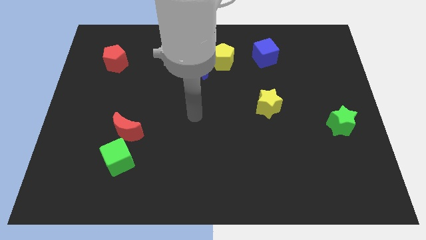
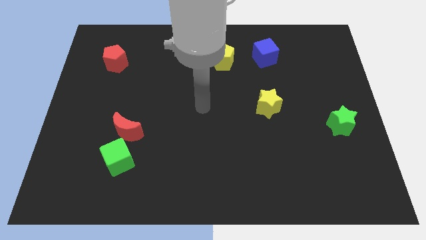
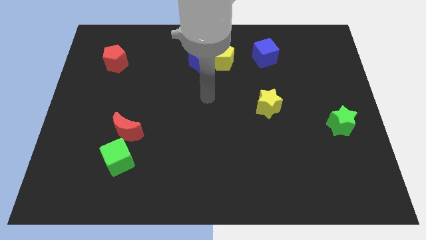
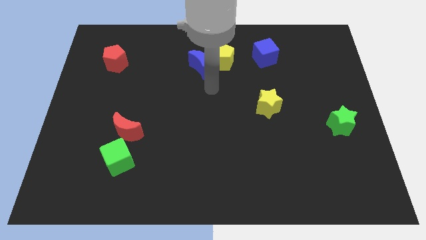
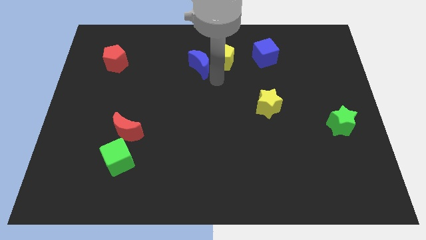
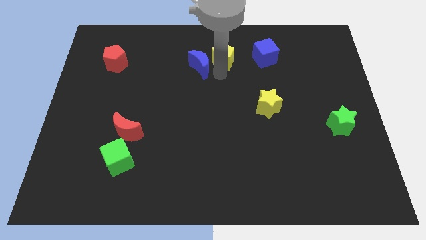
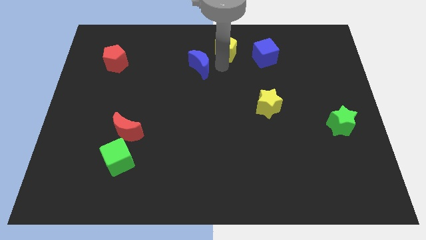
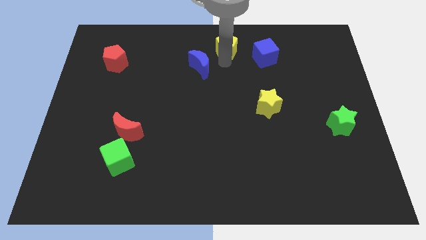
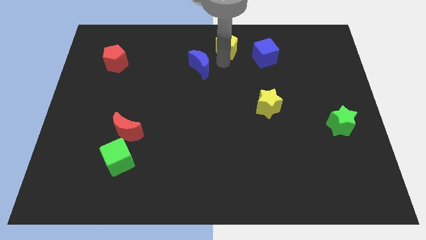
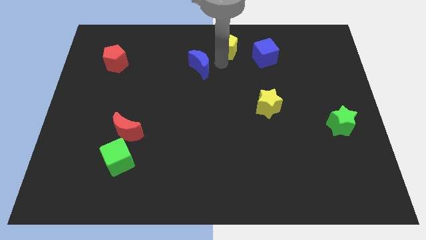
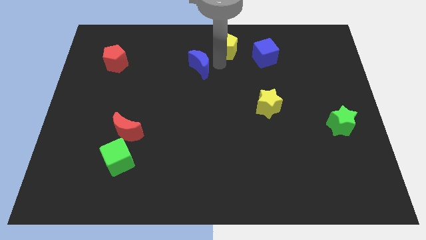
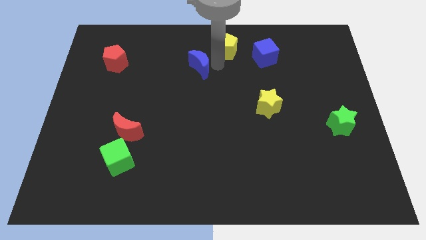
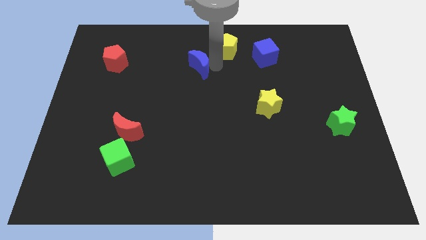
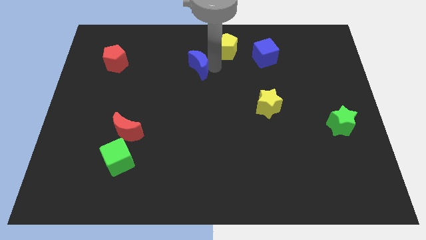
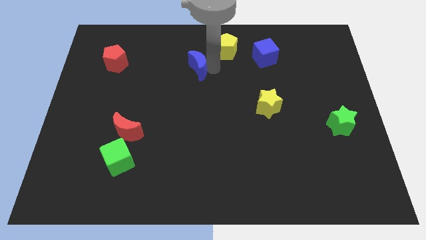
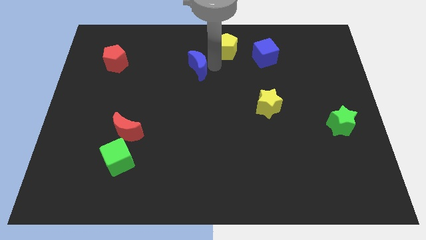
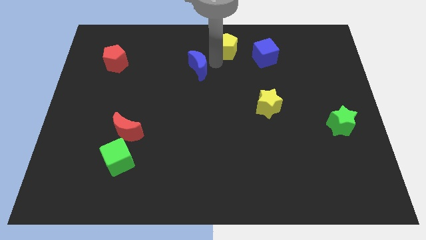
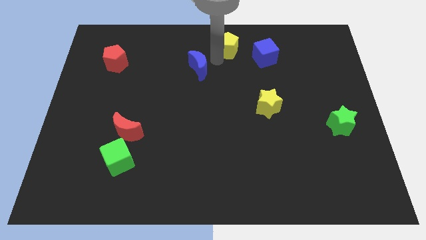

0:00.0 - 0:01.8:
separate the blue moon from the yellow pentagon

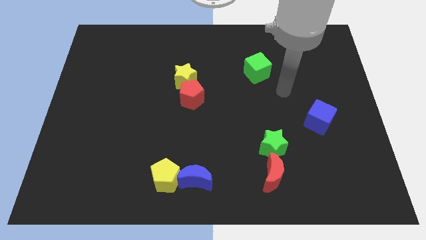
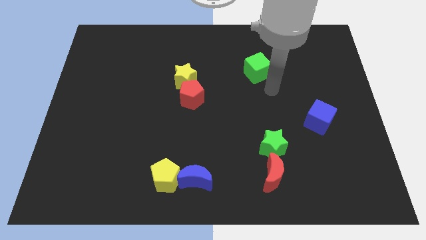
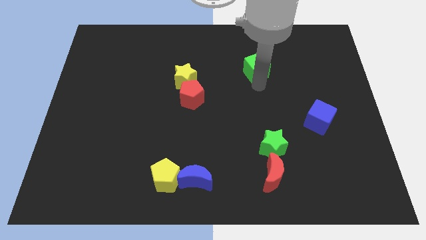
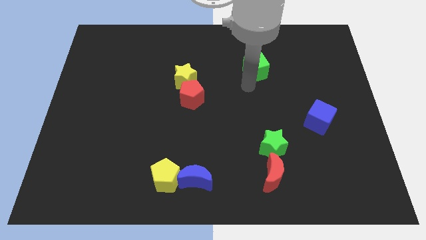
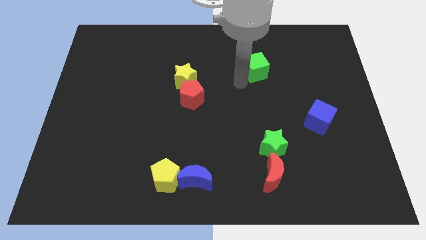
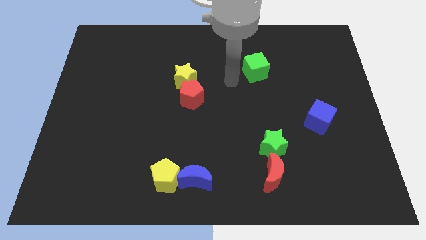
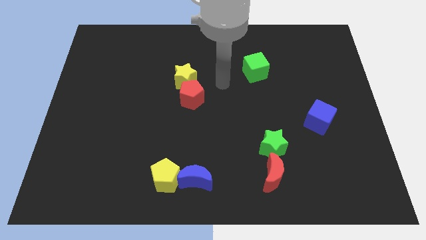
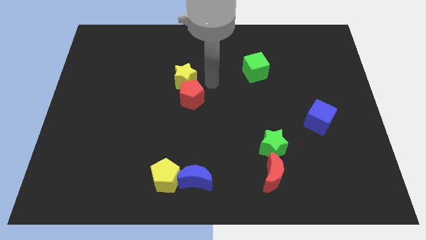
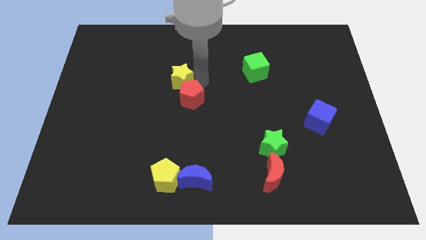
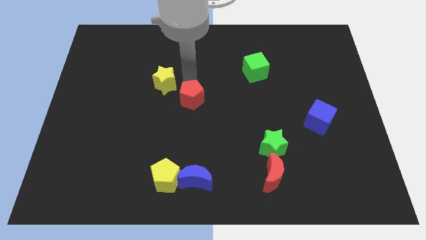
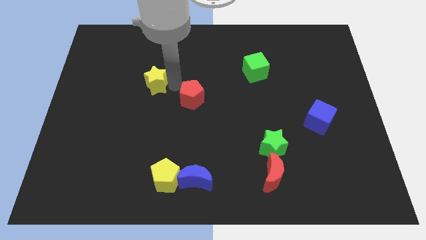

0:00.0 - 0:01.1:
separate the red pentagon from the yellow star

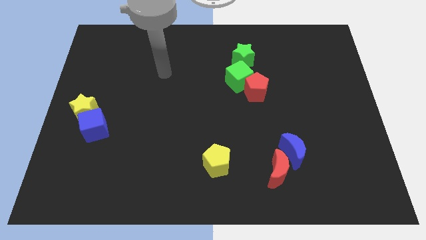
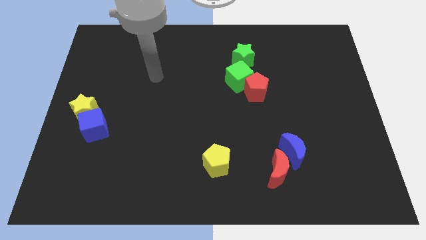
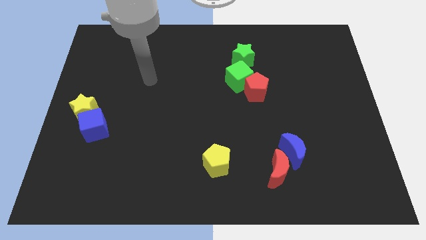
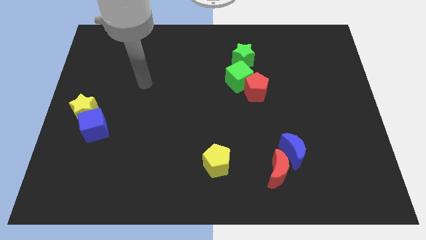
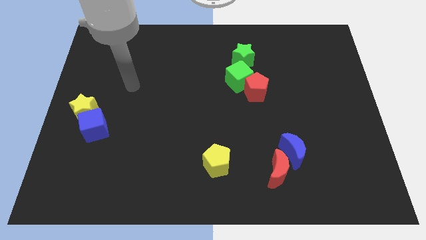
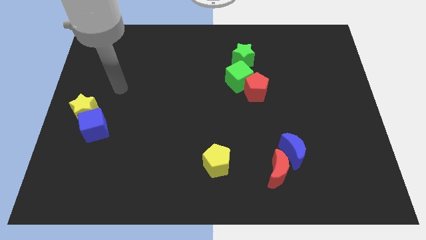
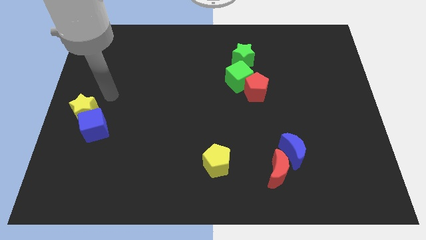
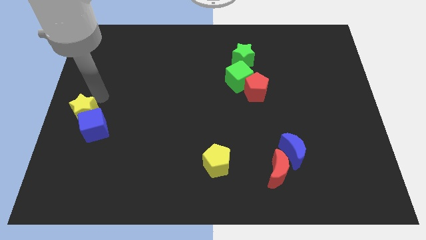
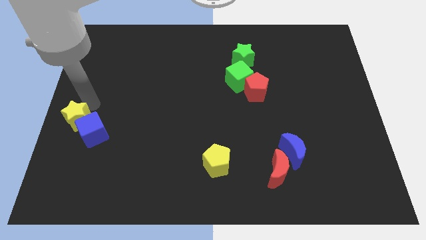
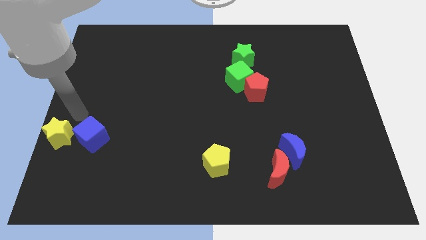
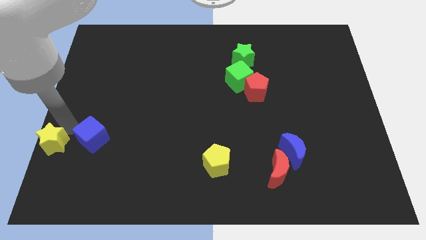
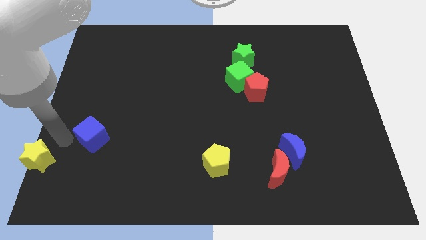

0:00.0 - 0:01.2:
pull the blue cube apart from the yellow star

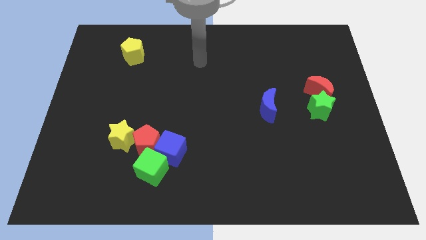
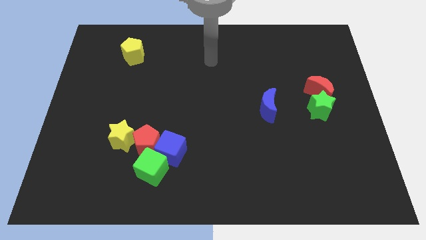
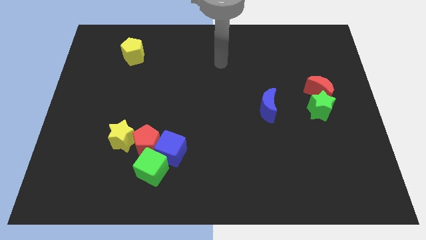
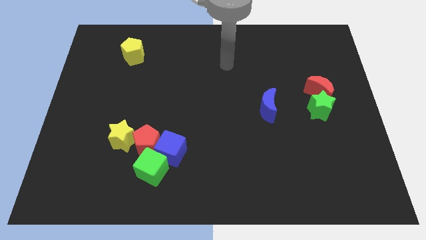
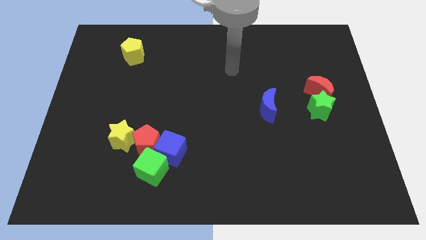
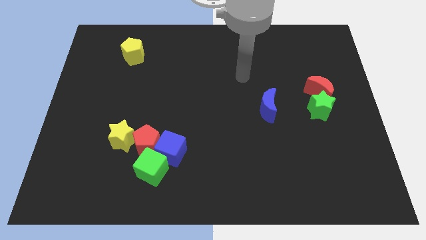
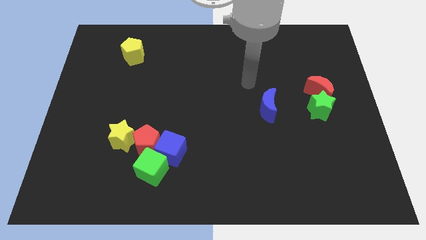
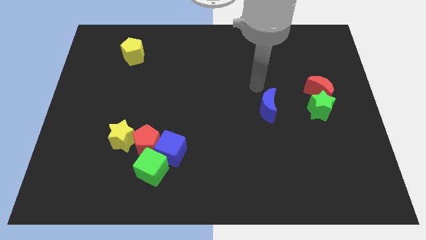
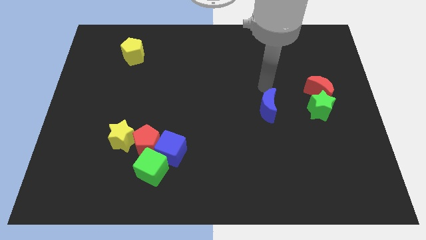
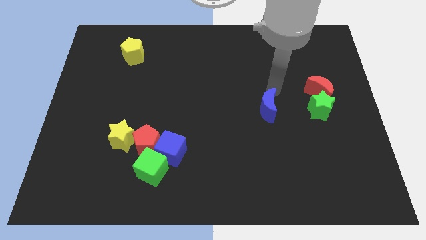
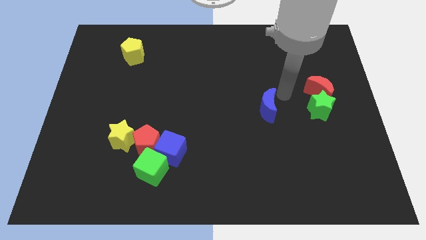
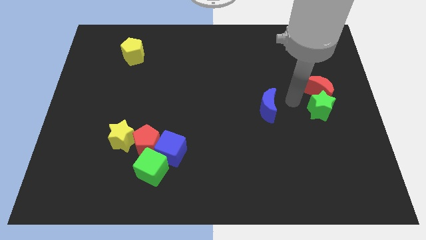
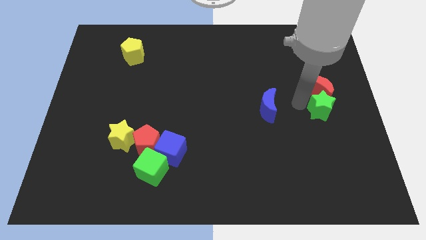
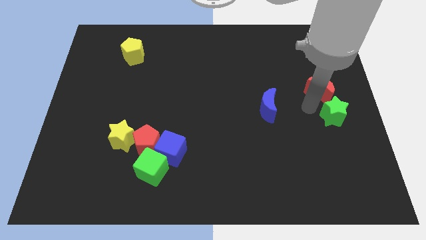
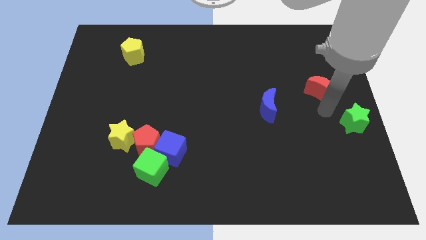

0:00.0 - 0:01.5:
move the red moon away from the green star

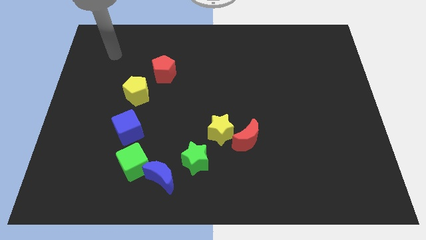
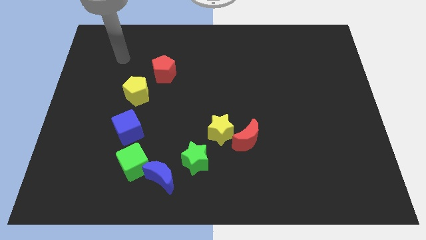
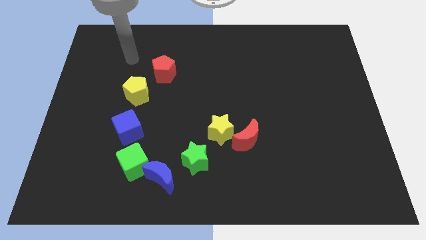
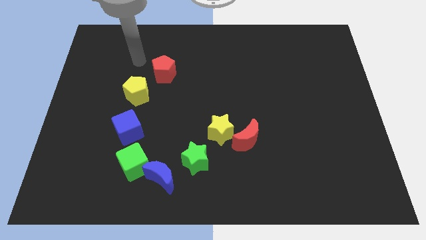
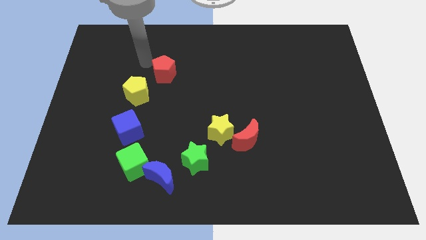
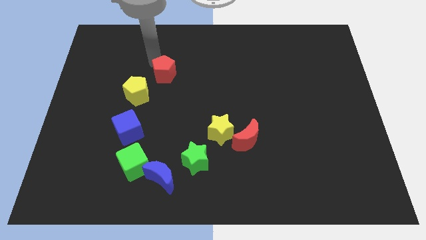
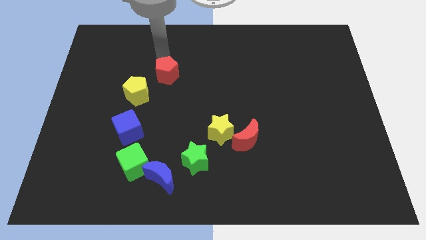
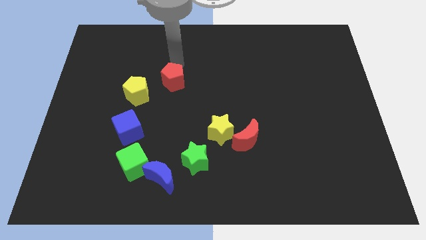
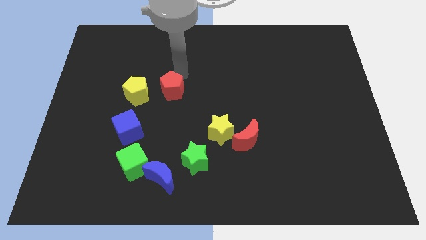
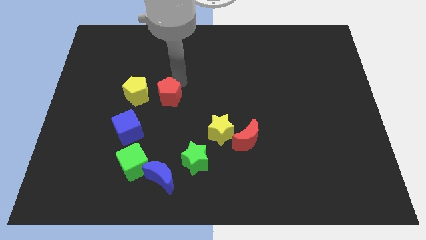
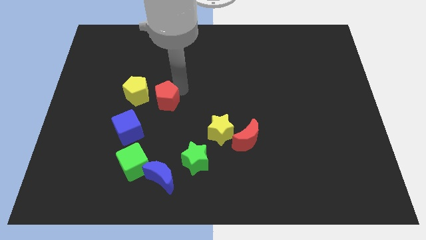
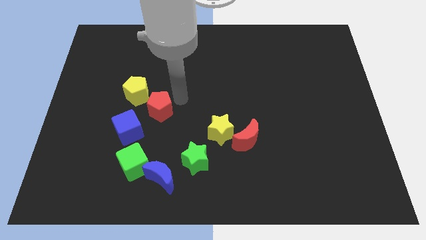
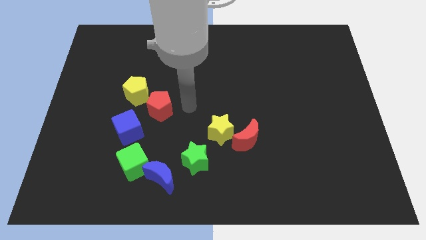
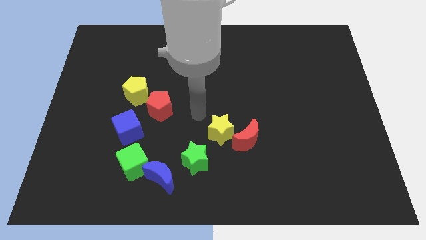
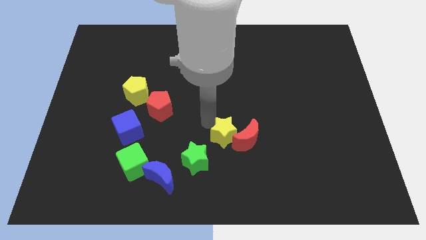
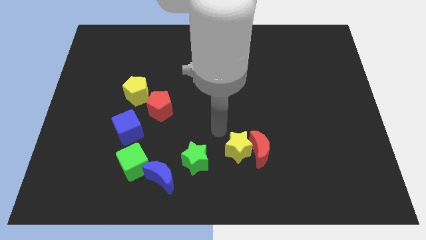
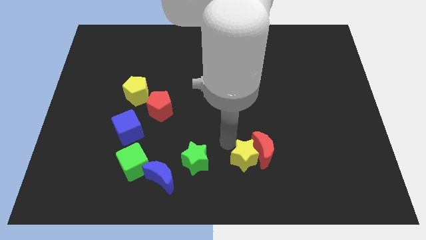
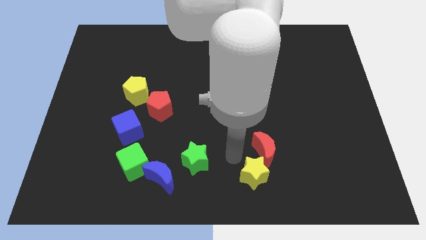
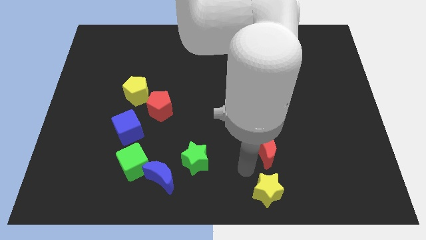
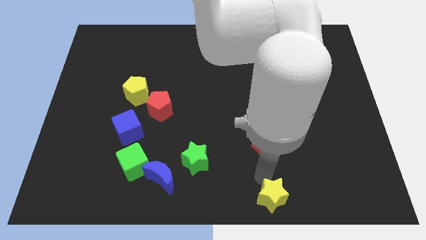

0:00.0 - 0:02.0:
move the red moon away from the yellow star

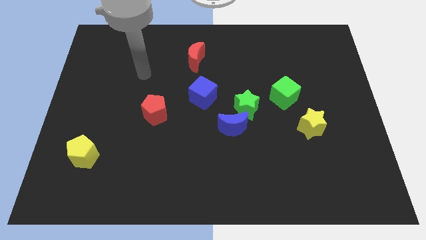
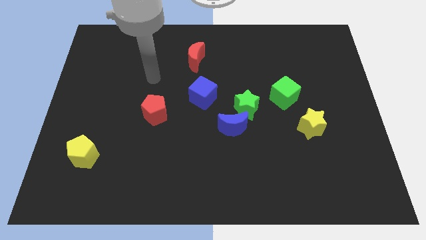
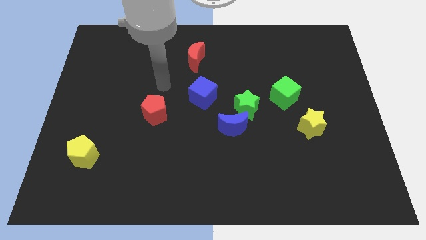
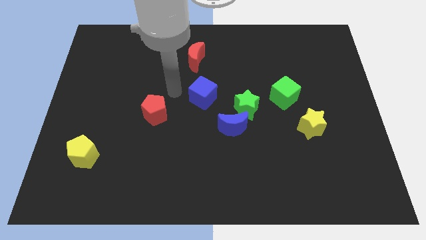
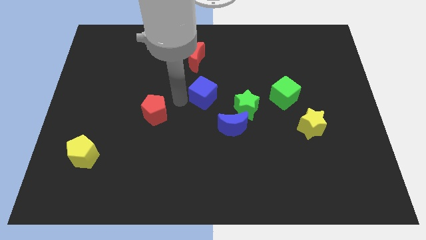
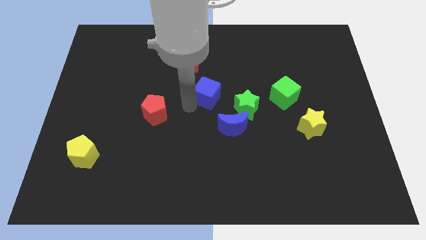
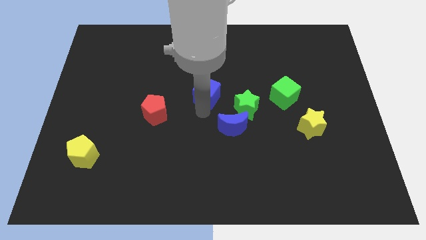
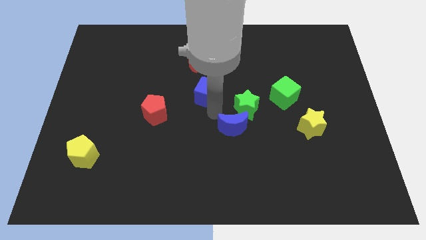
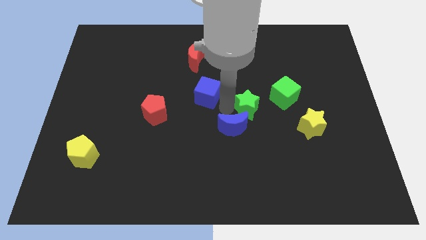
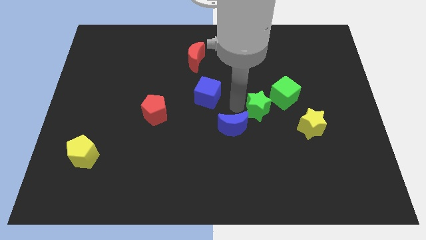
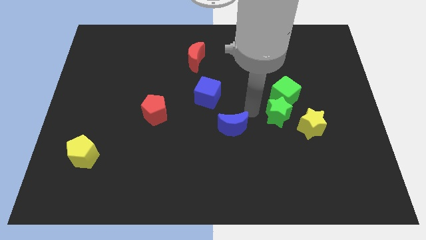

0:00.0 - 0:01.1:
pull the blue moon apart from the green star

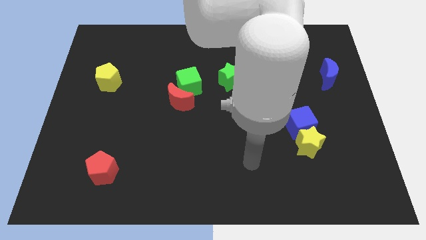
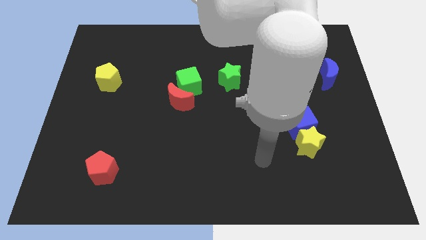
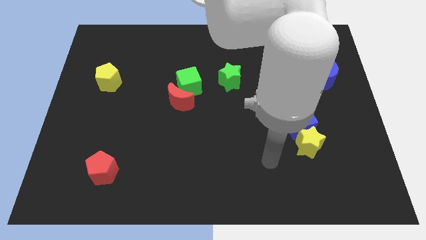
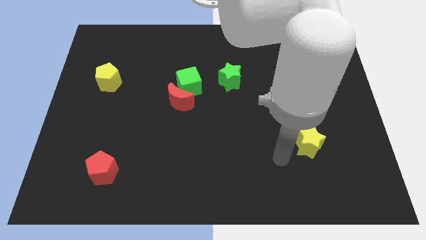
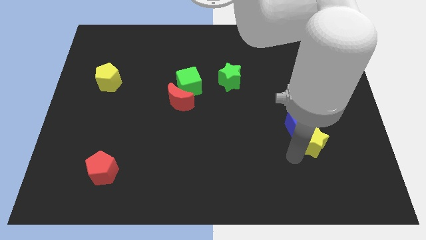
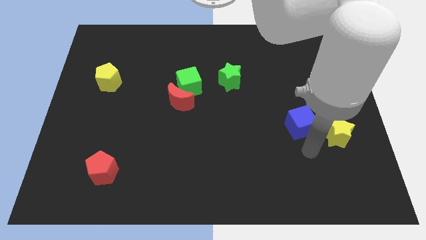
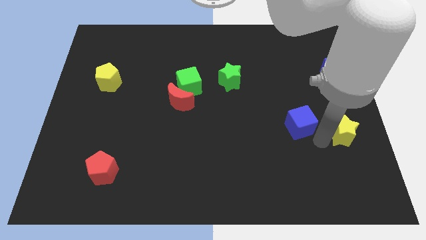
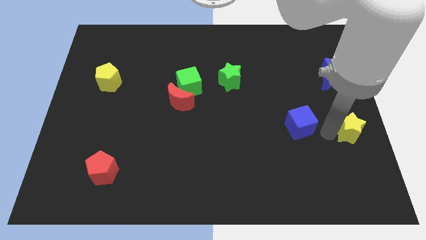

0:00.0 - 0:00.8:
move the blue cube away from the yellow star
